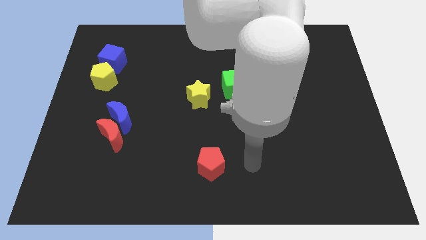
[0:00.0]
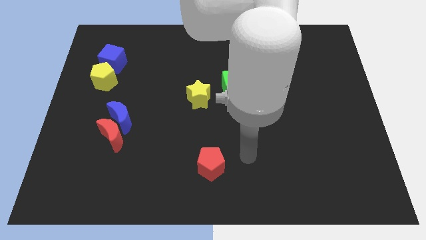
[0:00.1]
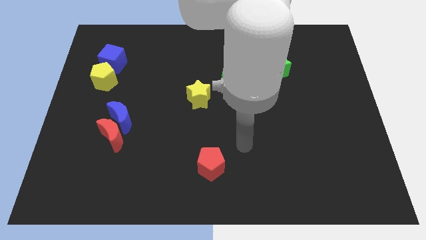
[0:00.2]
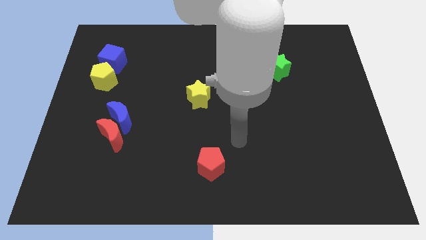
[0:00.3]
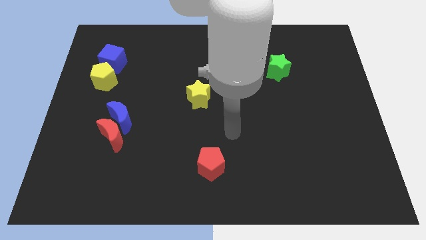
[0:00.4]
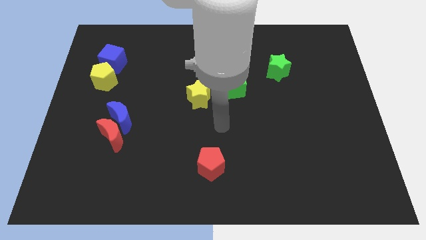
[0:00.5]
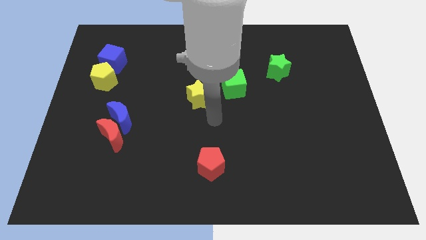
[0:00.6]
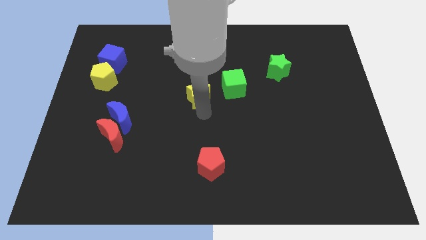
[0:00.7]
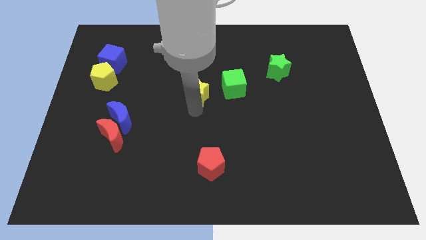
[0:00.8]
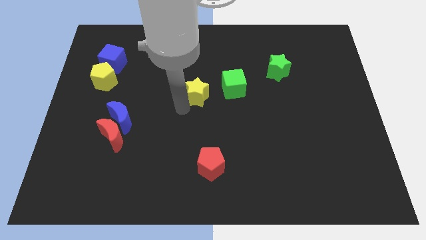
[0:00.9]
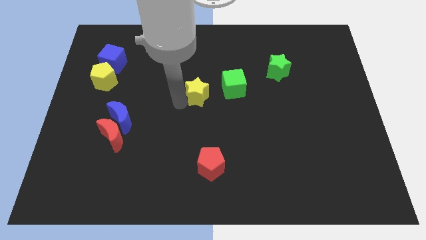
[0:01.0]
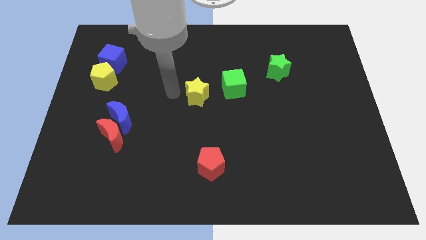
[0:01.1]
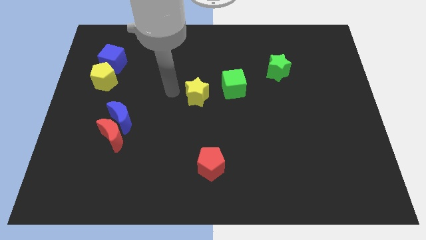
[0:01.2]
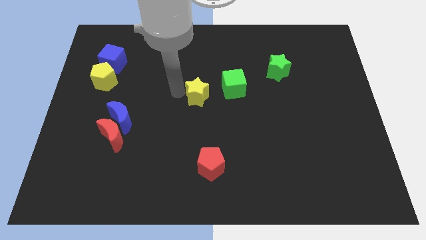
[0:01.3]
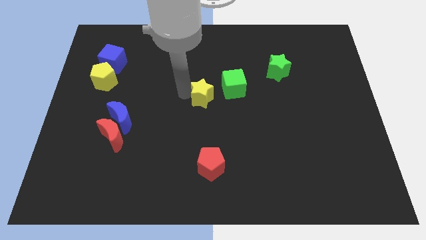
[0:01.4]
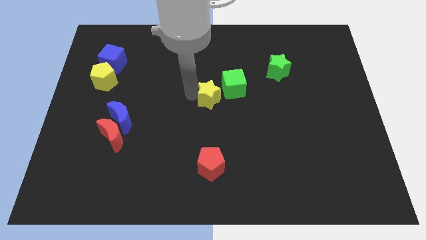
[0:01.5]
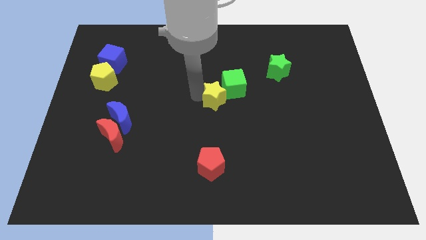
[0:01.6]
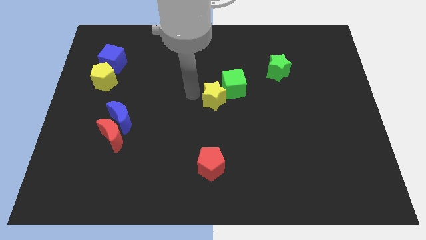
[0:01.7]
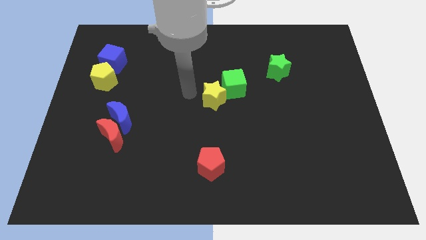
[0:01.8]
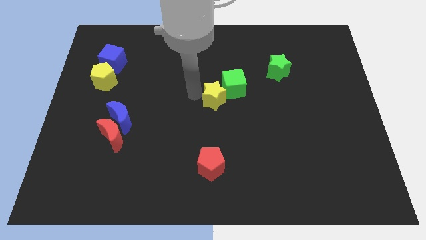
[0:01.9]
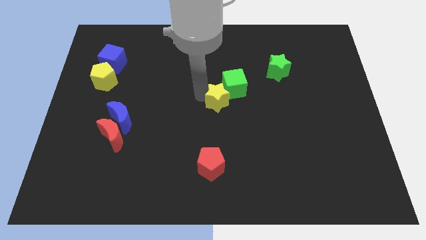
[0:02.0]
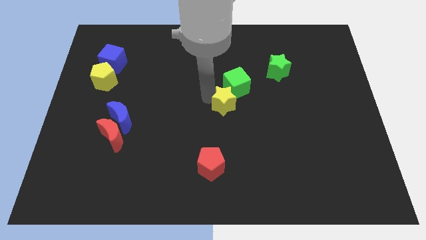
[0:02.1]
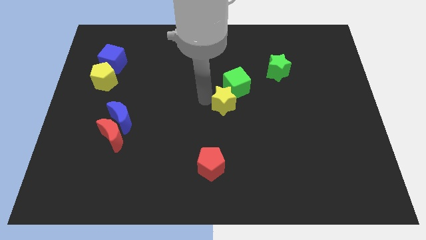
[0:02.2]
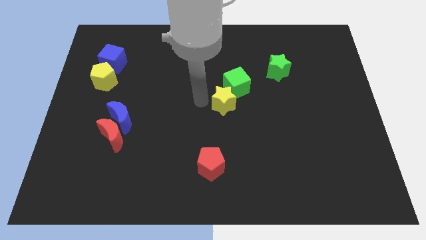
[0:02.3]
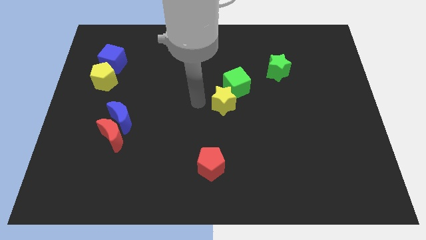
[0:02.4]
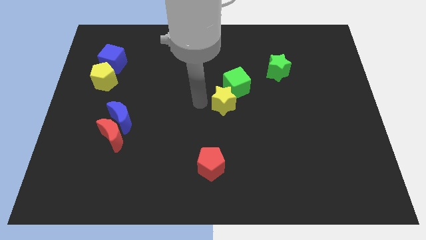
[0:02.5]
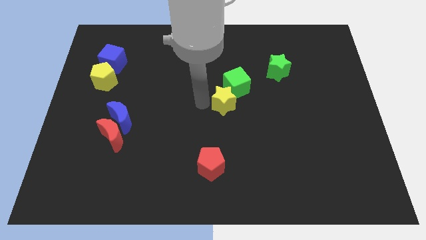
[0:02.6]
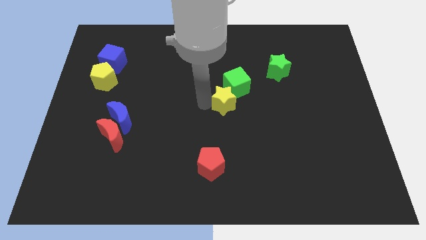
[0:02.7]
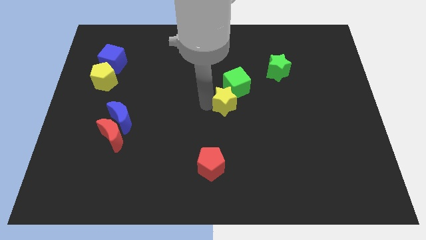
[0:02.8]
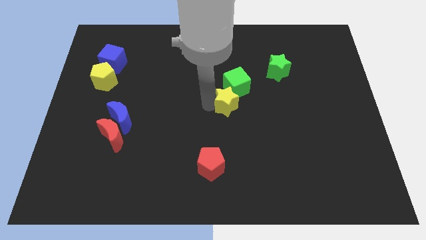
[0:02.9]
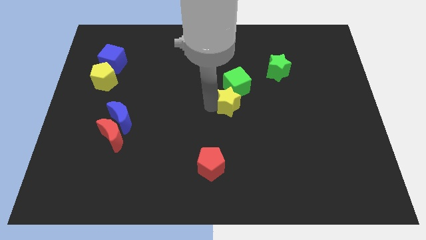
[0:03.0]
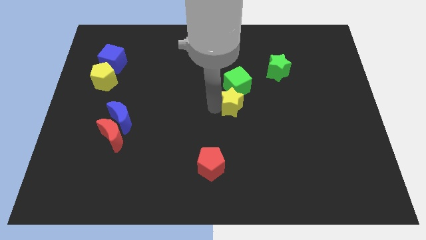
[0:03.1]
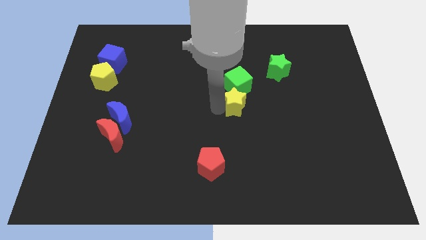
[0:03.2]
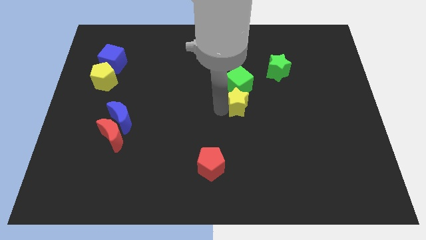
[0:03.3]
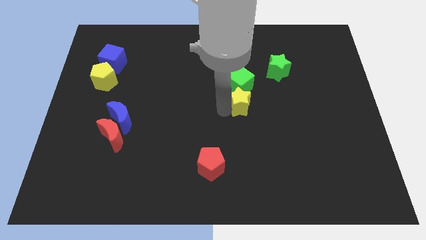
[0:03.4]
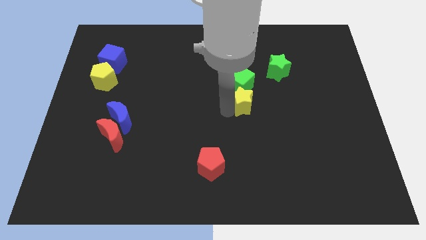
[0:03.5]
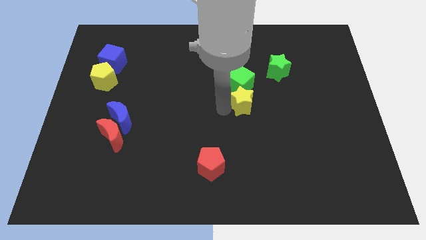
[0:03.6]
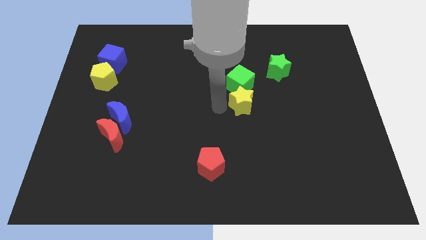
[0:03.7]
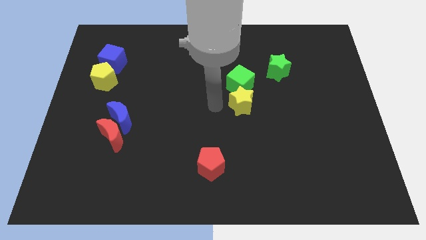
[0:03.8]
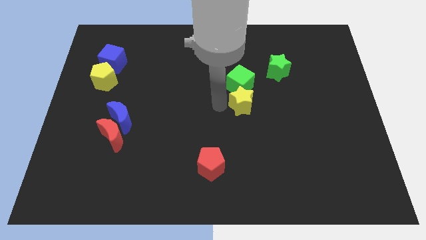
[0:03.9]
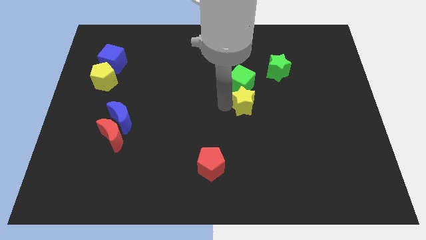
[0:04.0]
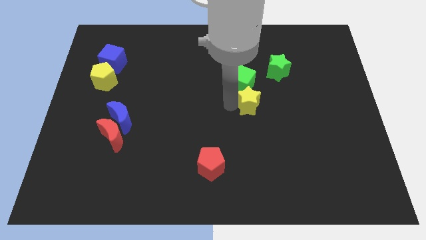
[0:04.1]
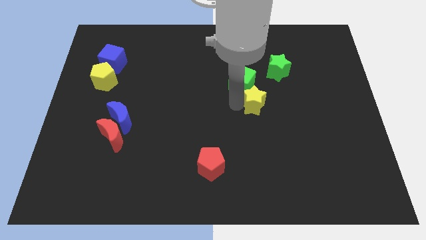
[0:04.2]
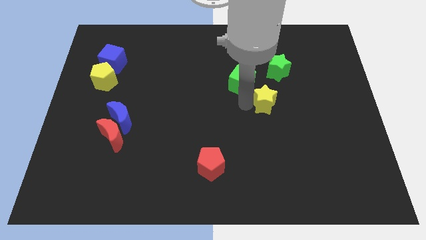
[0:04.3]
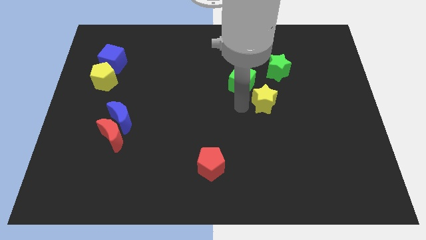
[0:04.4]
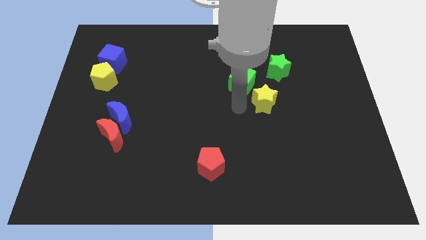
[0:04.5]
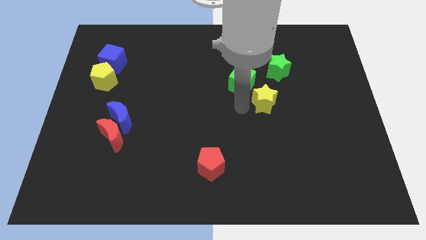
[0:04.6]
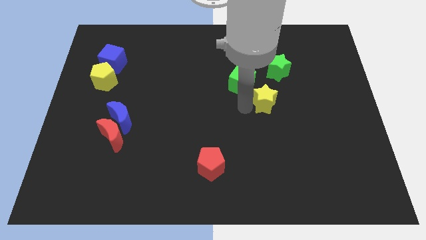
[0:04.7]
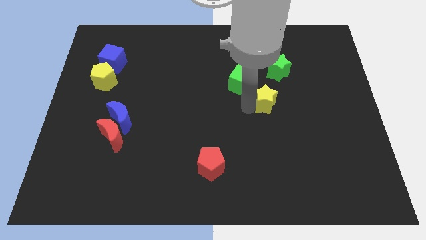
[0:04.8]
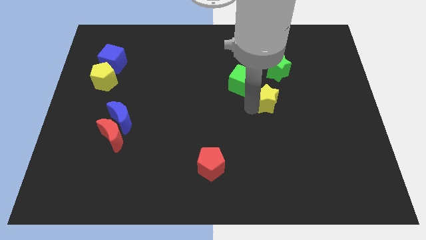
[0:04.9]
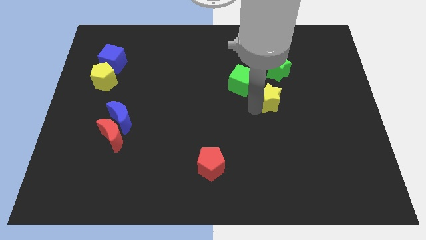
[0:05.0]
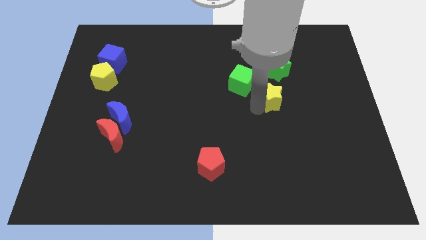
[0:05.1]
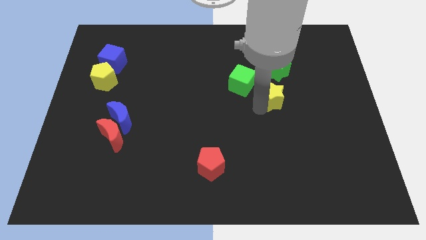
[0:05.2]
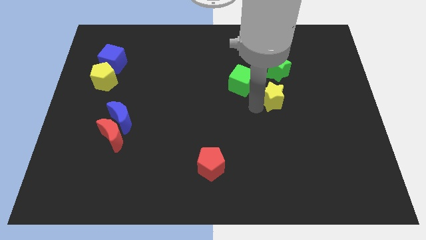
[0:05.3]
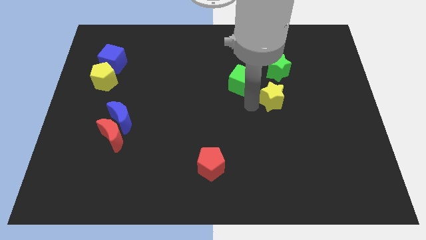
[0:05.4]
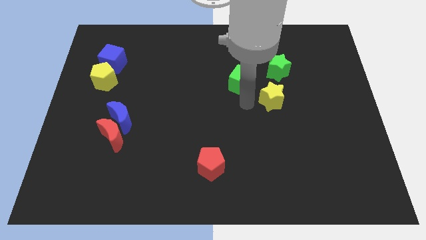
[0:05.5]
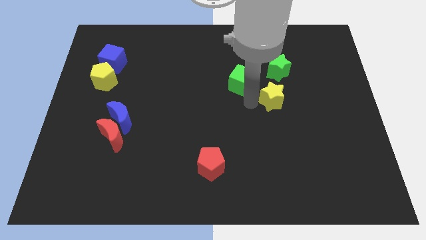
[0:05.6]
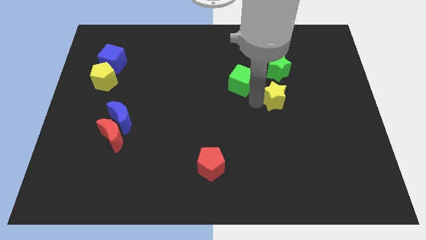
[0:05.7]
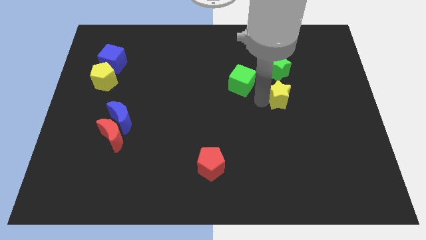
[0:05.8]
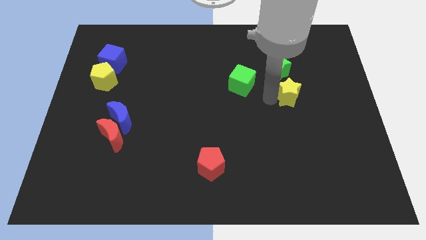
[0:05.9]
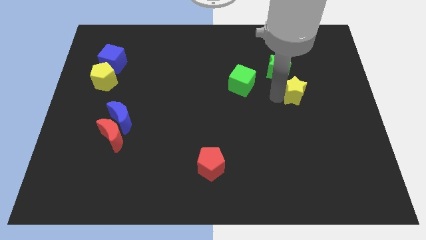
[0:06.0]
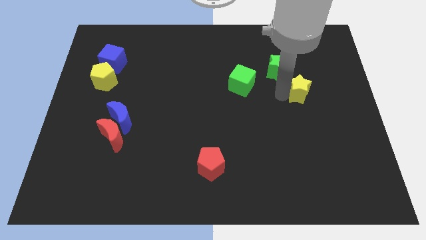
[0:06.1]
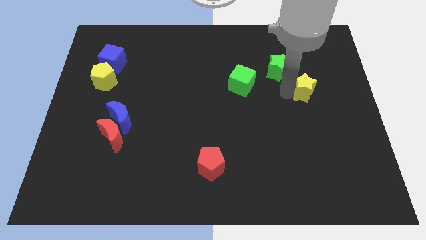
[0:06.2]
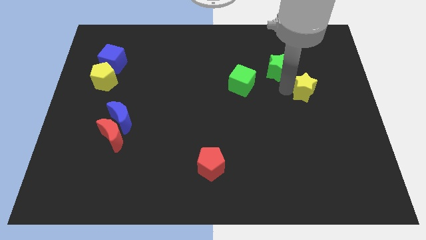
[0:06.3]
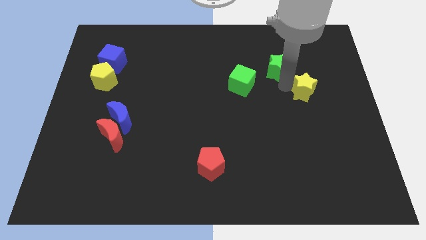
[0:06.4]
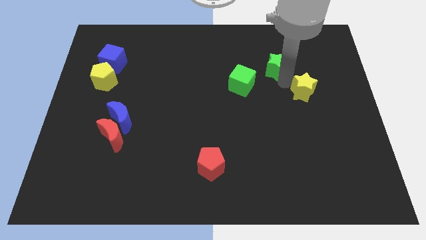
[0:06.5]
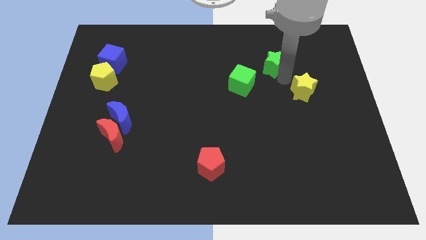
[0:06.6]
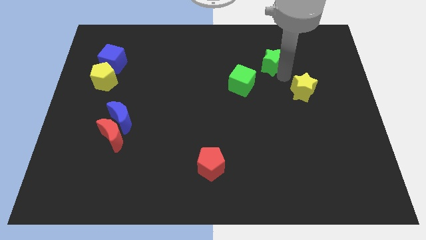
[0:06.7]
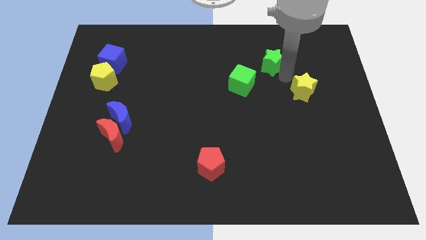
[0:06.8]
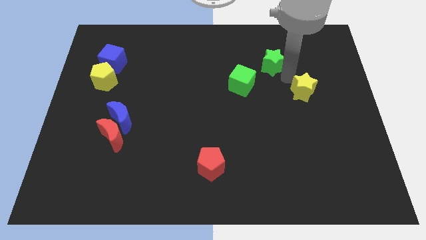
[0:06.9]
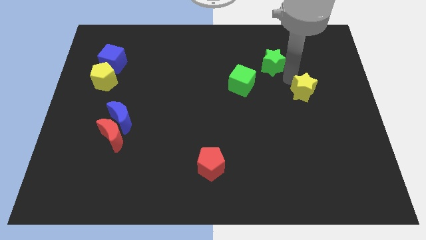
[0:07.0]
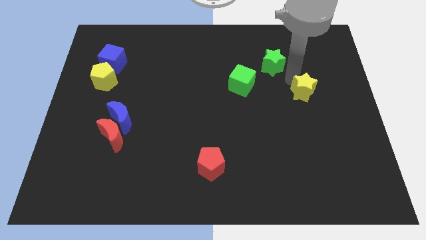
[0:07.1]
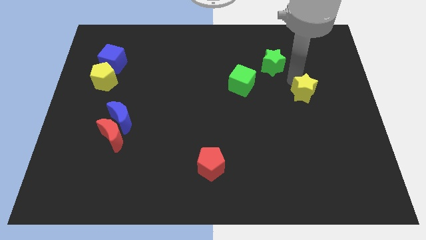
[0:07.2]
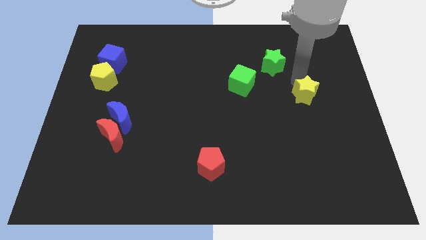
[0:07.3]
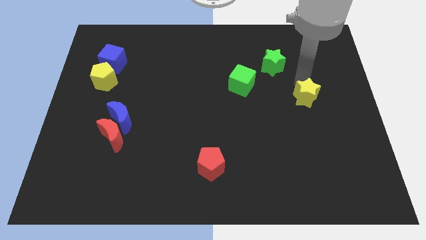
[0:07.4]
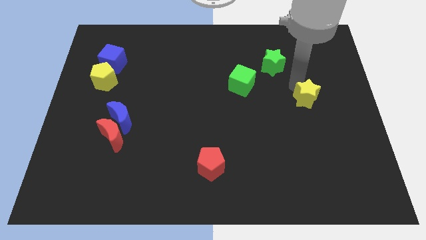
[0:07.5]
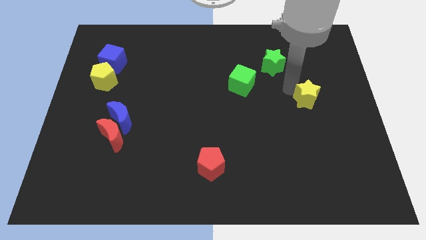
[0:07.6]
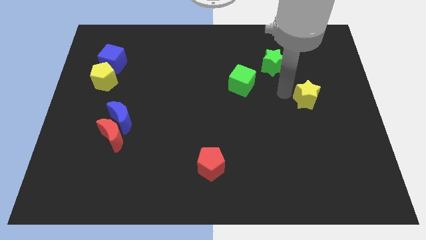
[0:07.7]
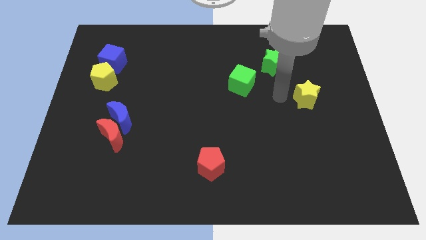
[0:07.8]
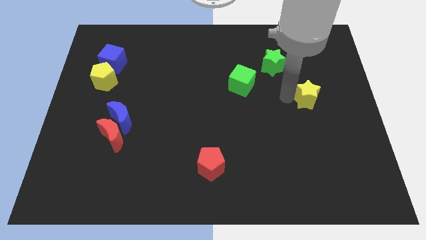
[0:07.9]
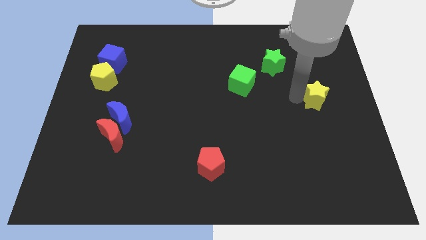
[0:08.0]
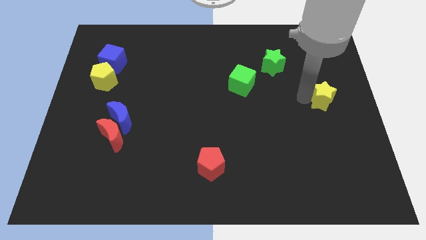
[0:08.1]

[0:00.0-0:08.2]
slide the yellow star to the right side
